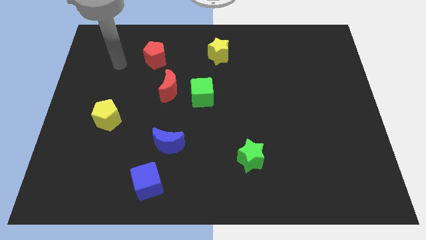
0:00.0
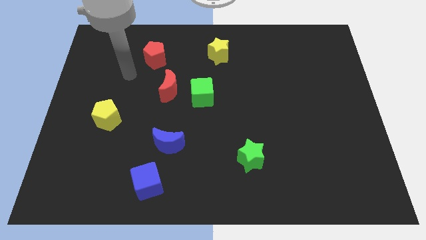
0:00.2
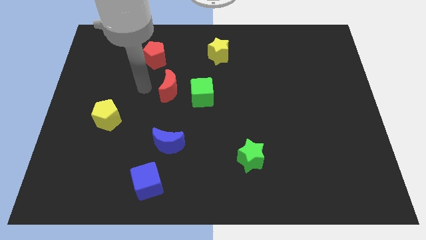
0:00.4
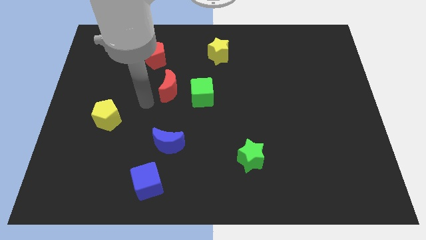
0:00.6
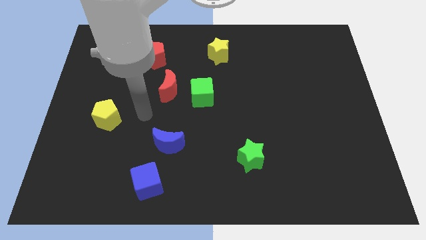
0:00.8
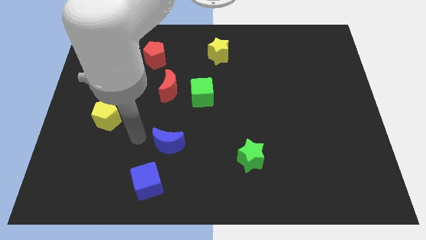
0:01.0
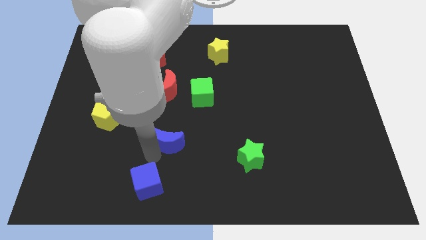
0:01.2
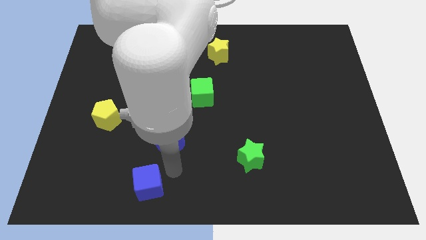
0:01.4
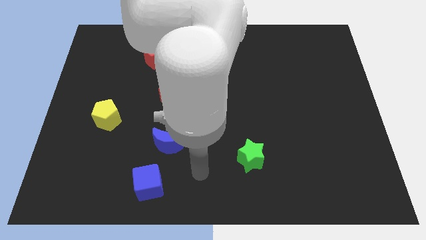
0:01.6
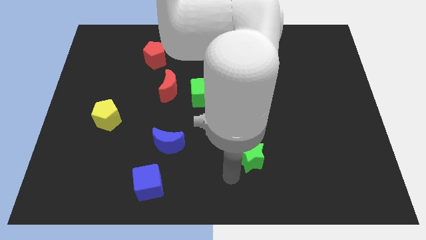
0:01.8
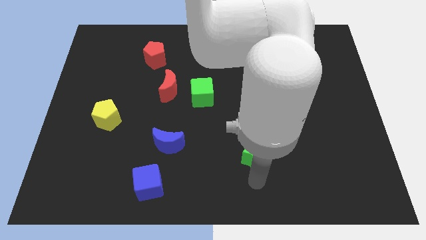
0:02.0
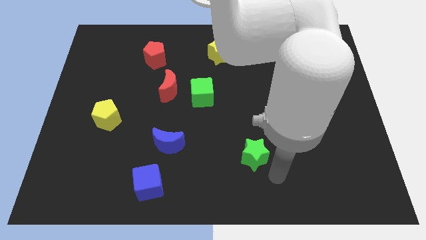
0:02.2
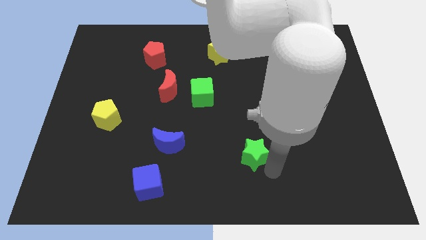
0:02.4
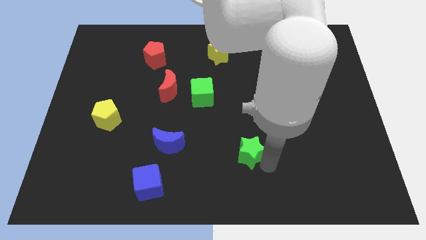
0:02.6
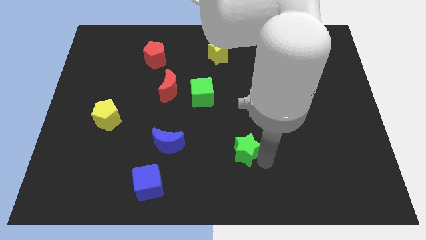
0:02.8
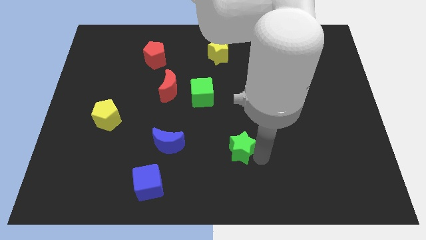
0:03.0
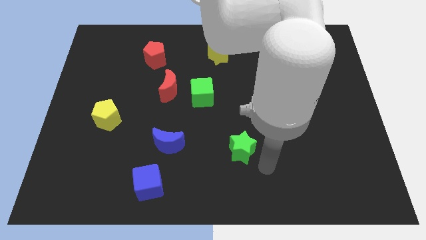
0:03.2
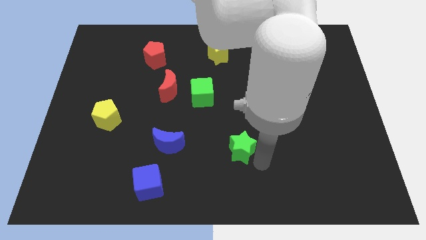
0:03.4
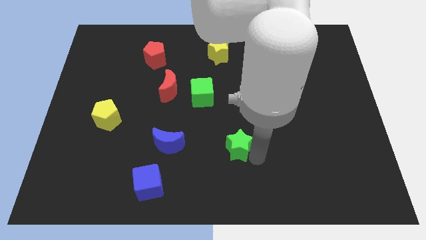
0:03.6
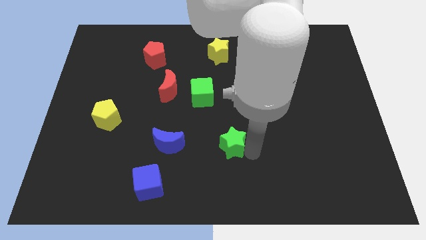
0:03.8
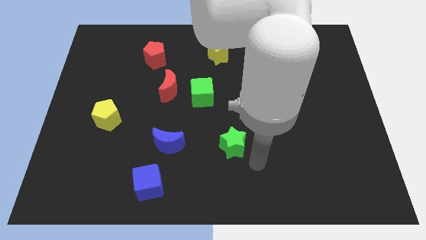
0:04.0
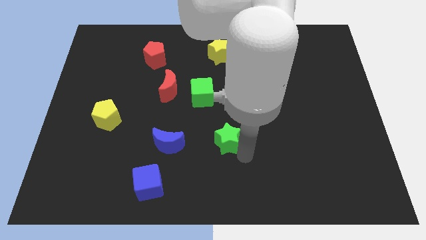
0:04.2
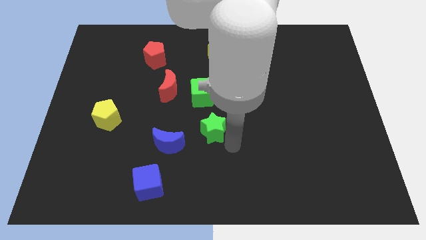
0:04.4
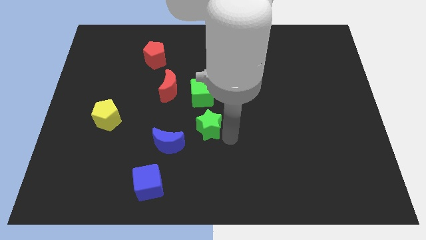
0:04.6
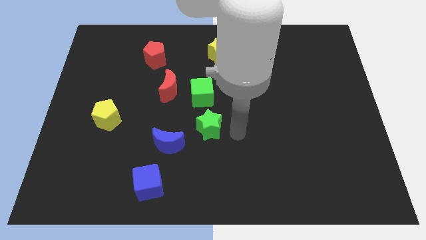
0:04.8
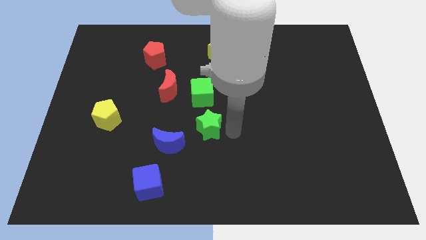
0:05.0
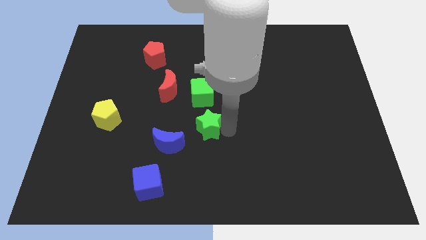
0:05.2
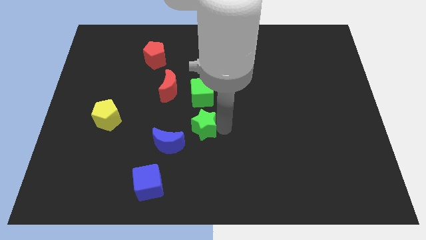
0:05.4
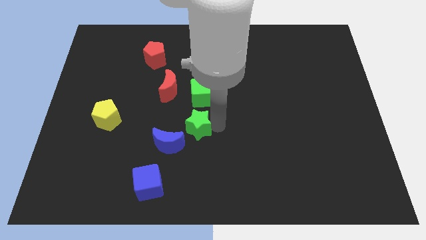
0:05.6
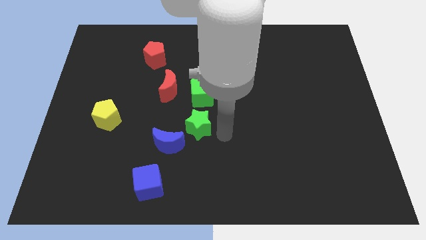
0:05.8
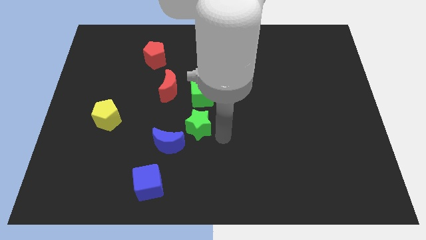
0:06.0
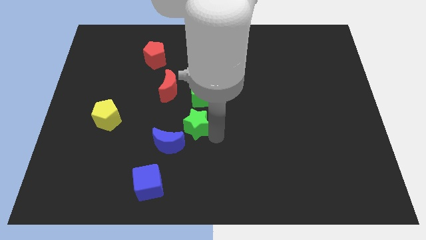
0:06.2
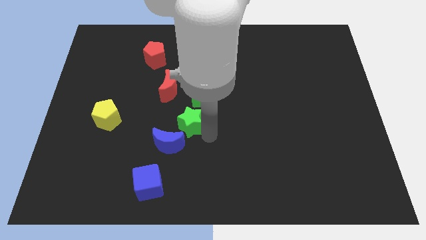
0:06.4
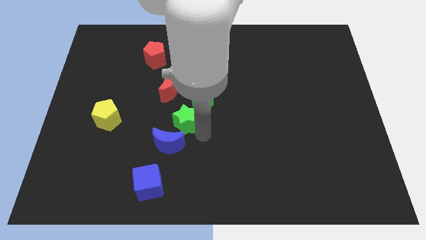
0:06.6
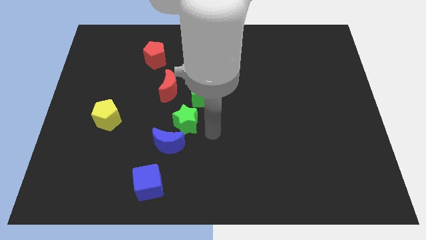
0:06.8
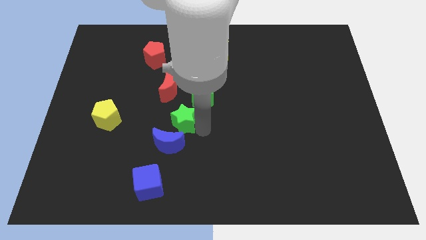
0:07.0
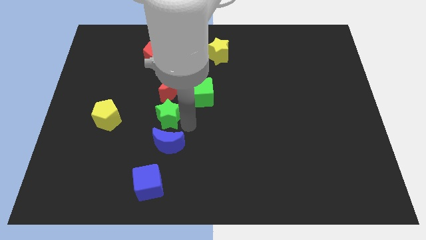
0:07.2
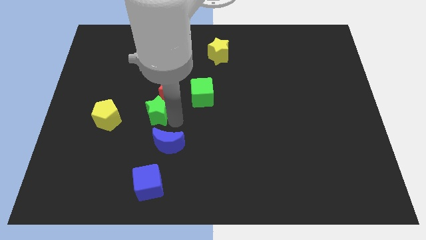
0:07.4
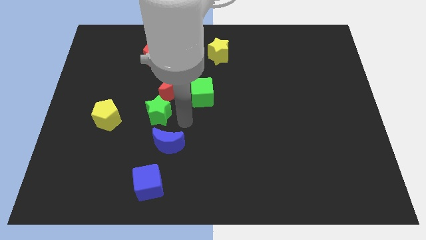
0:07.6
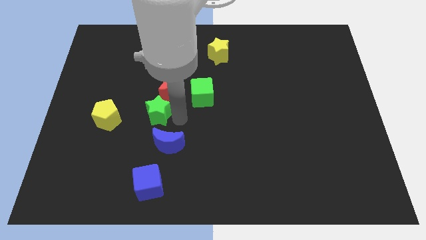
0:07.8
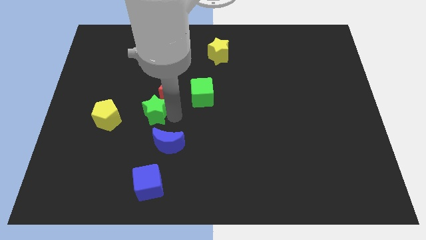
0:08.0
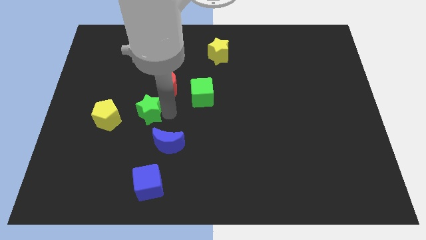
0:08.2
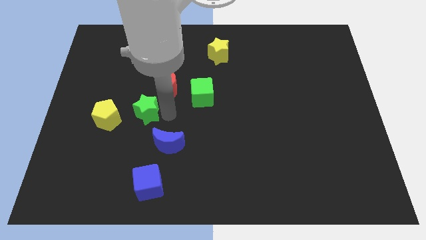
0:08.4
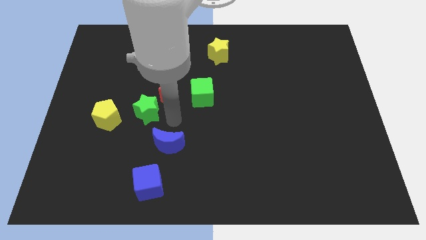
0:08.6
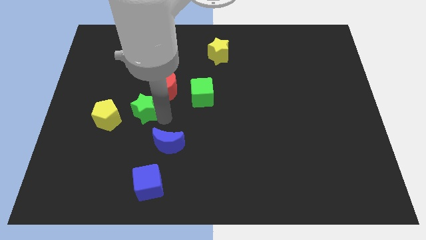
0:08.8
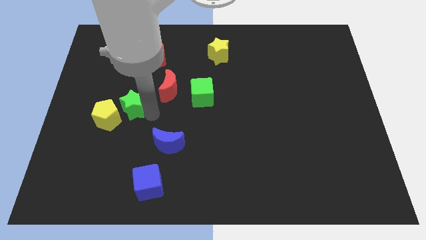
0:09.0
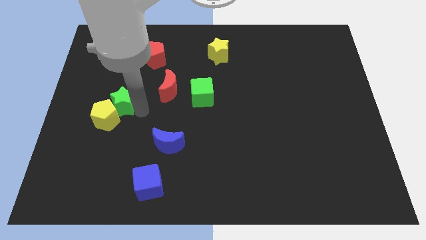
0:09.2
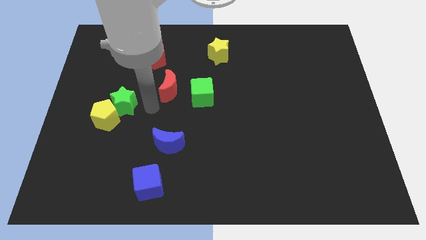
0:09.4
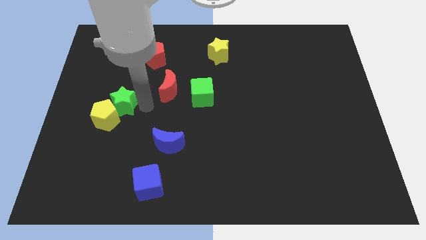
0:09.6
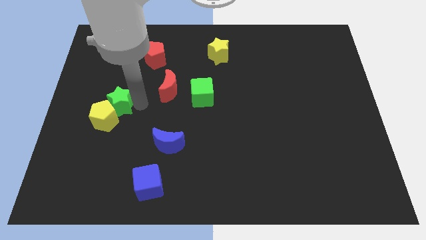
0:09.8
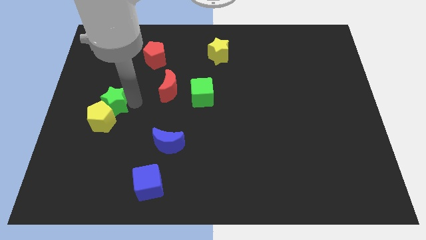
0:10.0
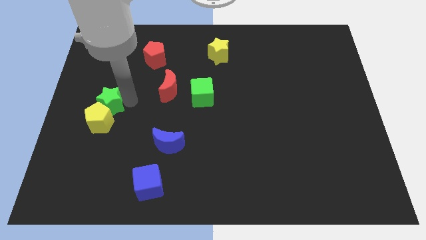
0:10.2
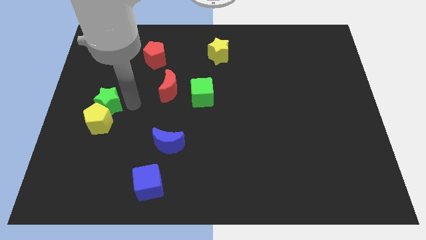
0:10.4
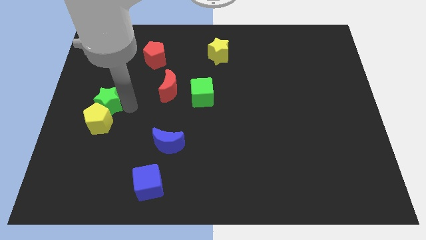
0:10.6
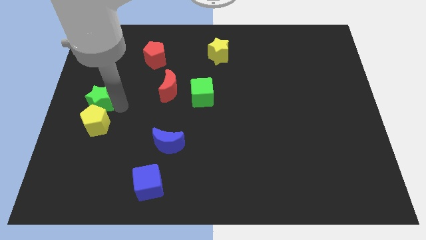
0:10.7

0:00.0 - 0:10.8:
put the green star to the left side of the board

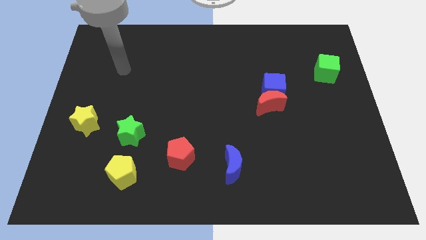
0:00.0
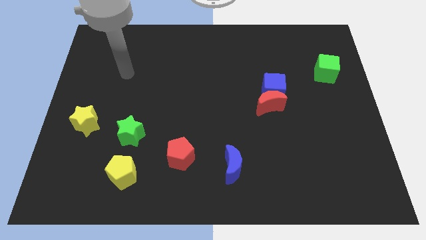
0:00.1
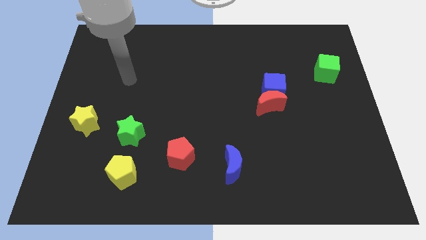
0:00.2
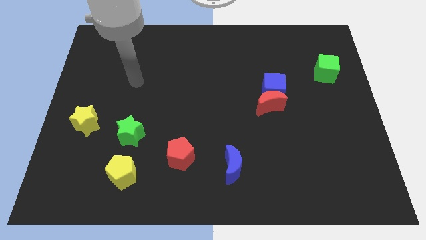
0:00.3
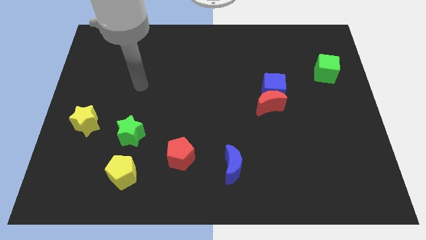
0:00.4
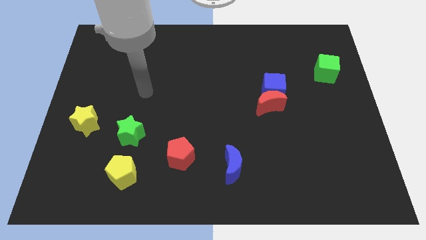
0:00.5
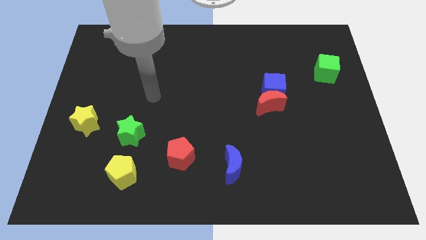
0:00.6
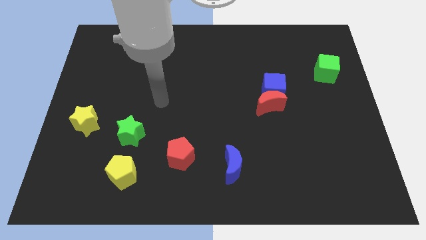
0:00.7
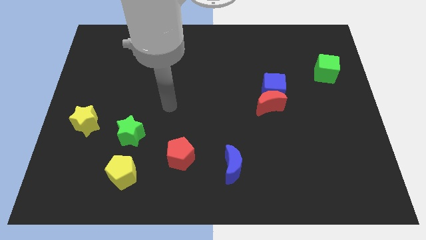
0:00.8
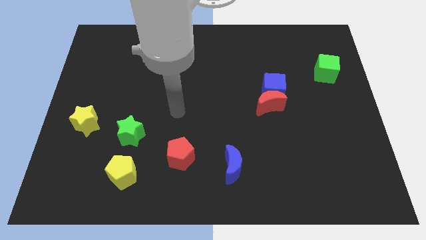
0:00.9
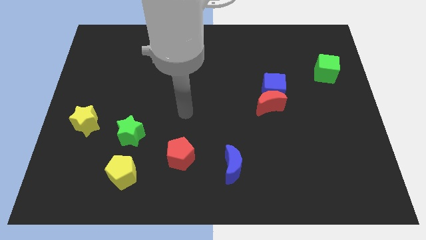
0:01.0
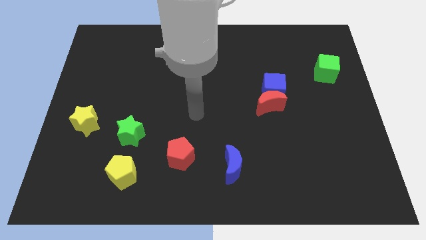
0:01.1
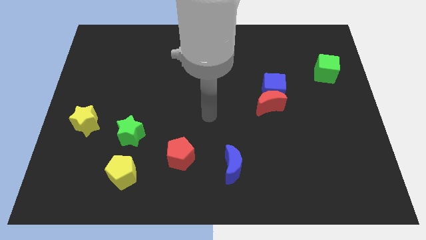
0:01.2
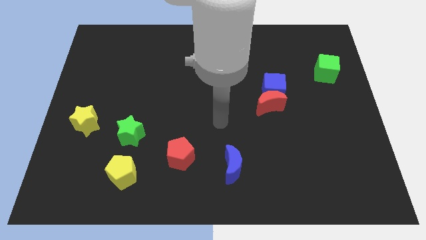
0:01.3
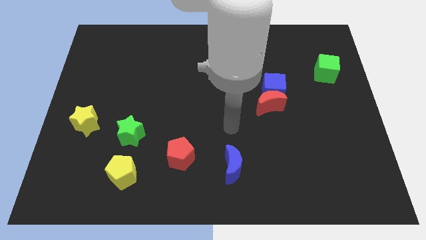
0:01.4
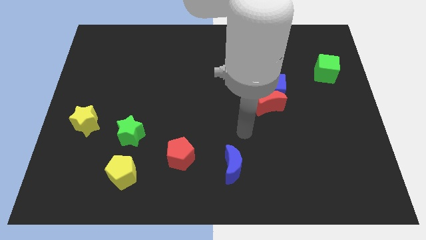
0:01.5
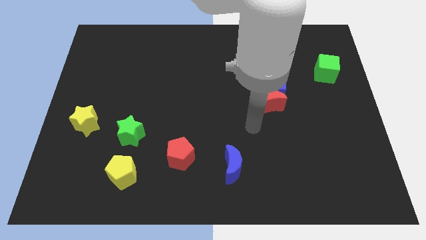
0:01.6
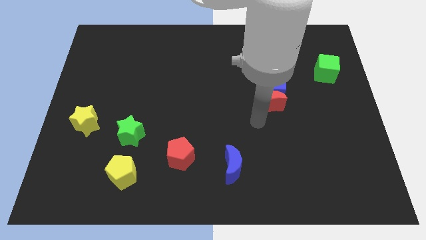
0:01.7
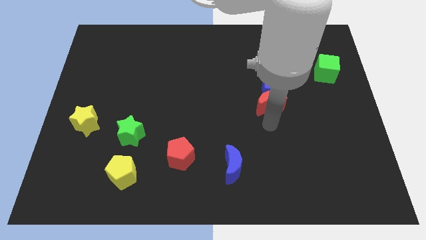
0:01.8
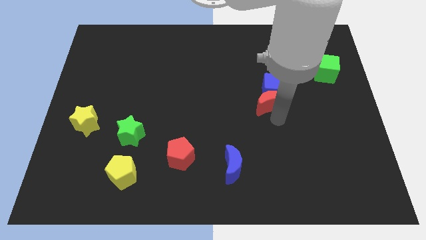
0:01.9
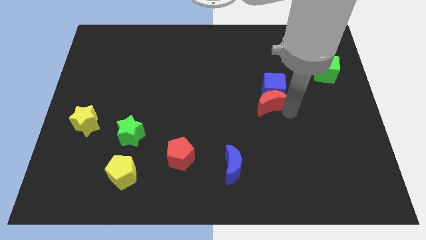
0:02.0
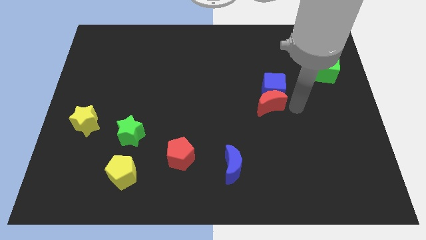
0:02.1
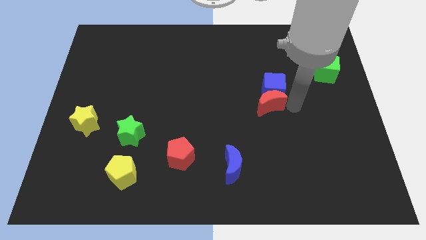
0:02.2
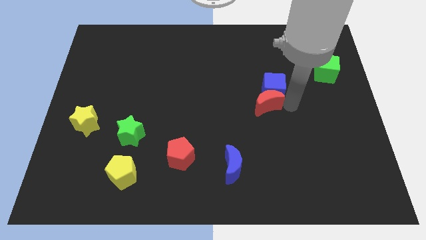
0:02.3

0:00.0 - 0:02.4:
slide the red moon to the center of the board
